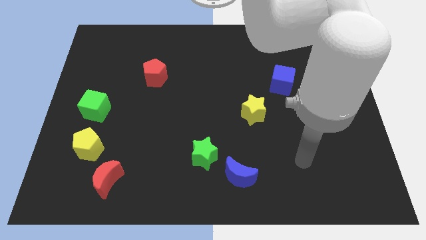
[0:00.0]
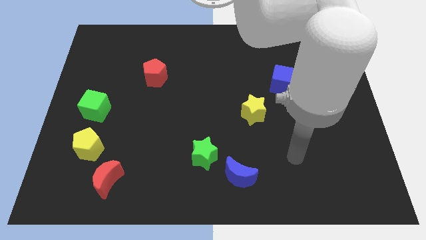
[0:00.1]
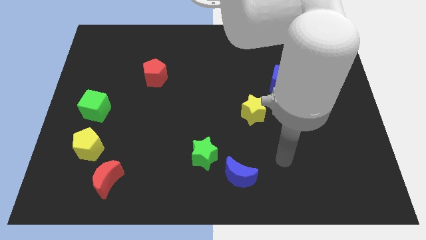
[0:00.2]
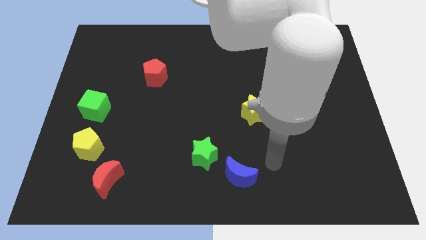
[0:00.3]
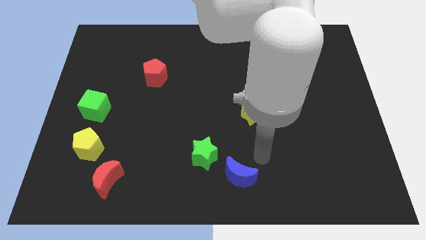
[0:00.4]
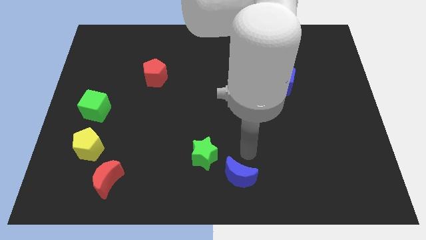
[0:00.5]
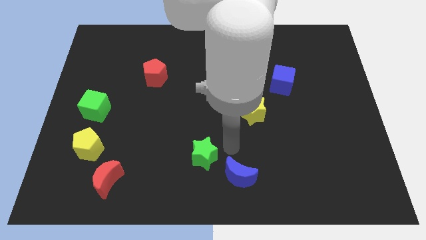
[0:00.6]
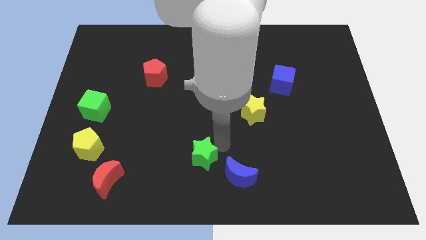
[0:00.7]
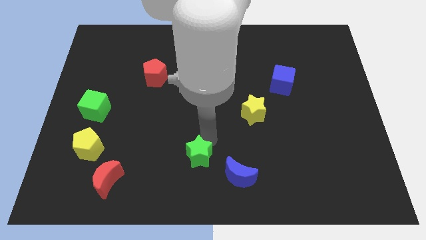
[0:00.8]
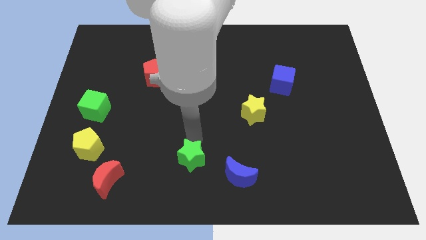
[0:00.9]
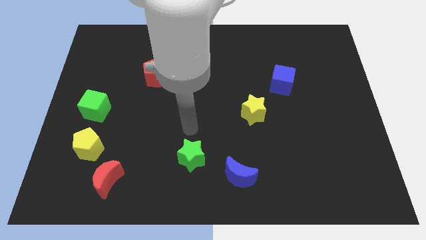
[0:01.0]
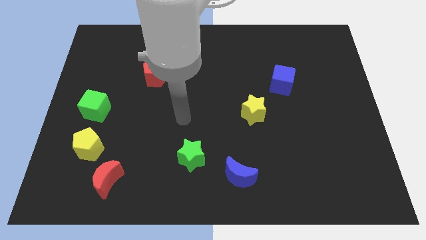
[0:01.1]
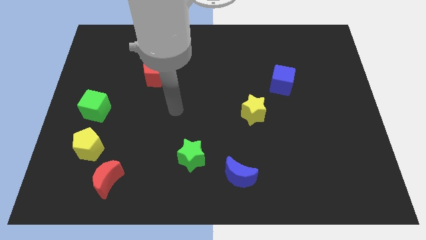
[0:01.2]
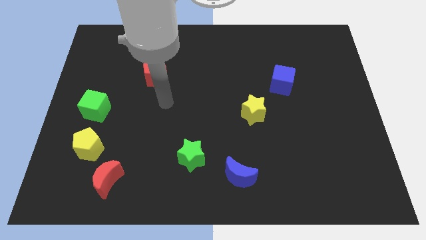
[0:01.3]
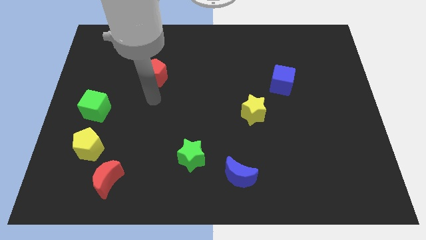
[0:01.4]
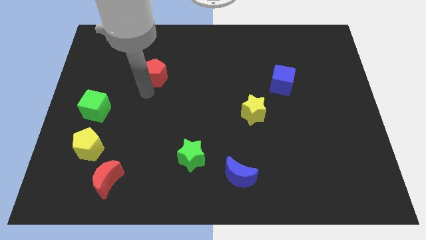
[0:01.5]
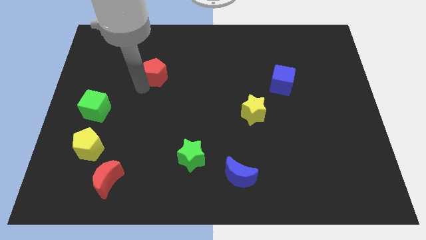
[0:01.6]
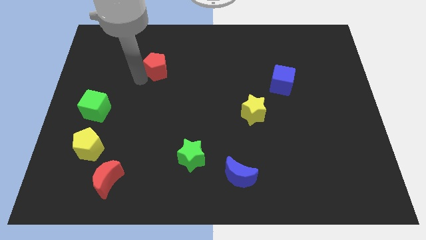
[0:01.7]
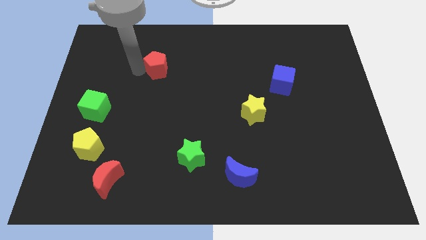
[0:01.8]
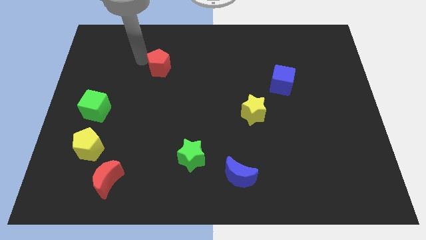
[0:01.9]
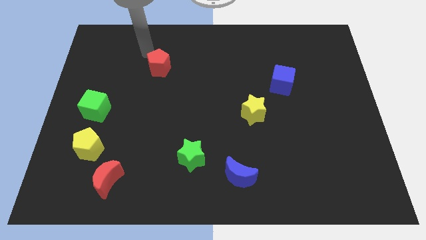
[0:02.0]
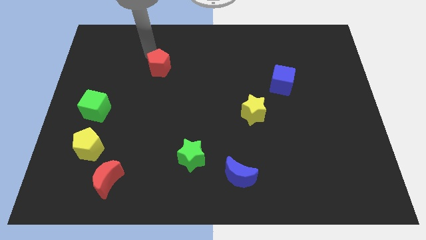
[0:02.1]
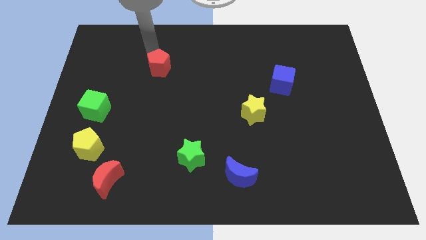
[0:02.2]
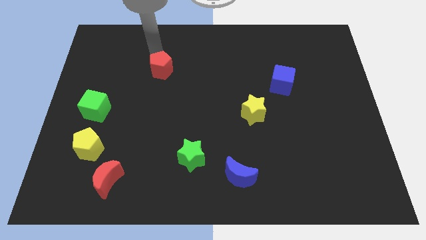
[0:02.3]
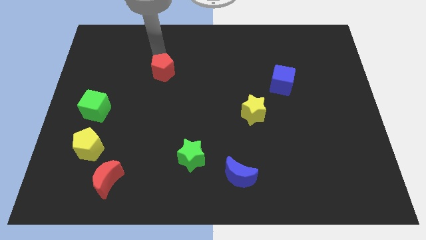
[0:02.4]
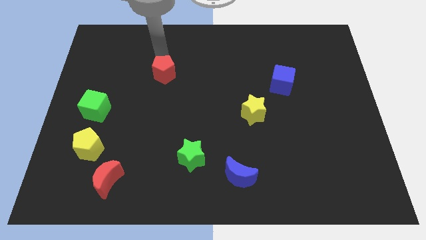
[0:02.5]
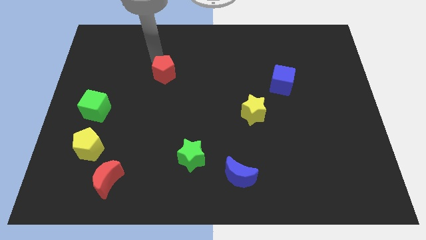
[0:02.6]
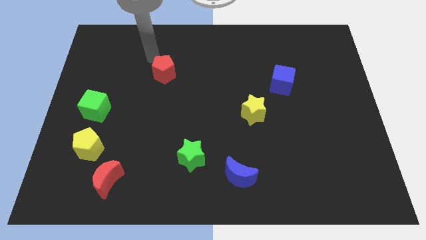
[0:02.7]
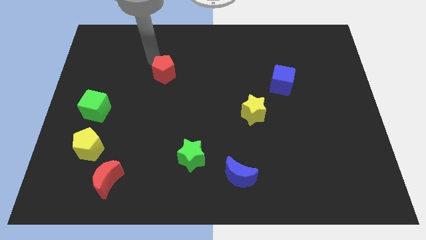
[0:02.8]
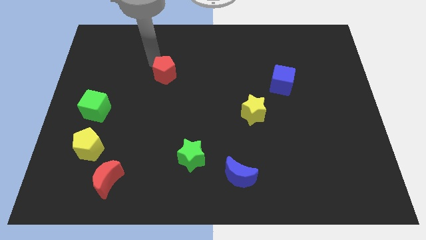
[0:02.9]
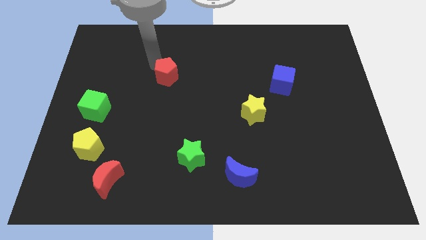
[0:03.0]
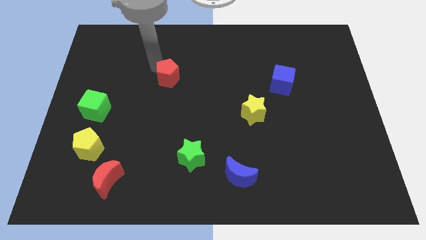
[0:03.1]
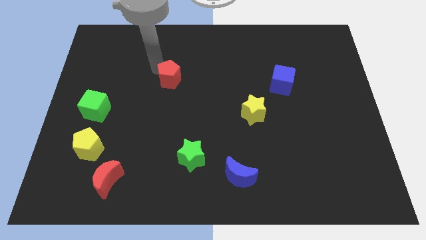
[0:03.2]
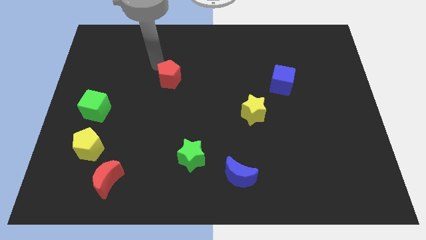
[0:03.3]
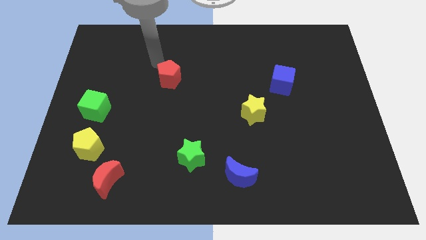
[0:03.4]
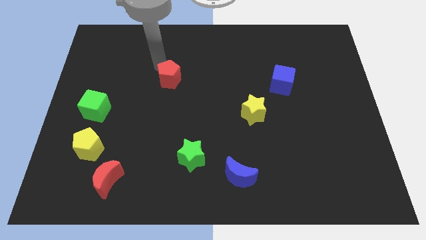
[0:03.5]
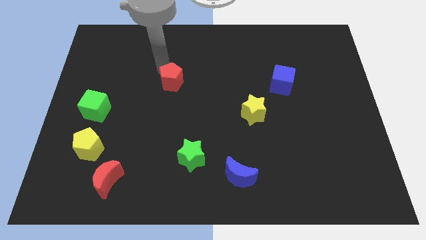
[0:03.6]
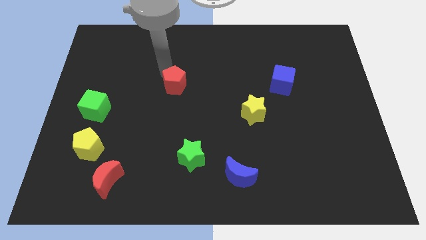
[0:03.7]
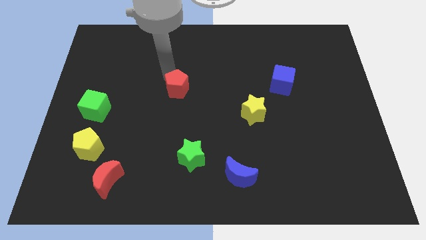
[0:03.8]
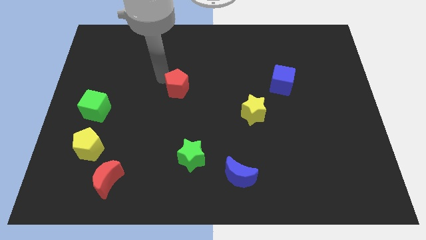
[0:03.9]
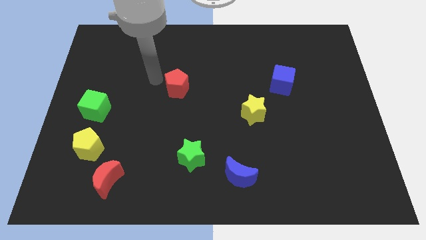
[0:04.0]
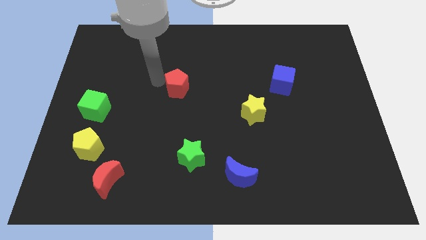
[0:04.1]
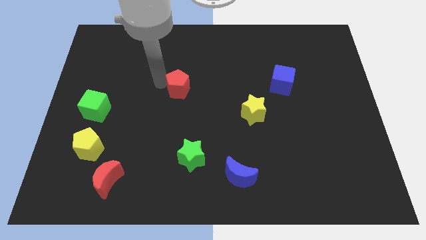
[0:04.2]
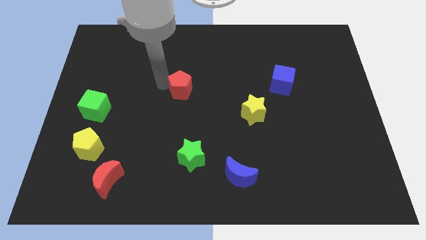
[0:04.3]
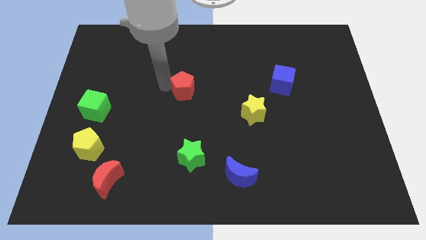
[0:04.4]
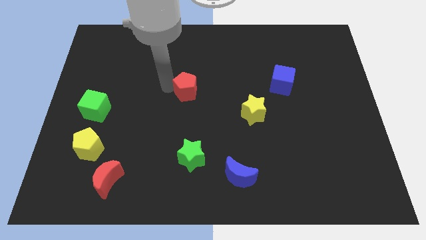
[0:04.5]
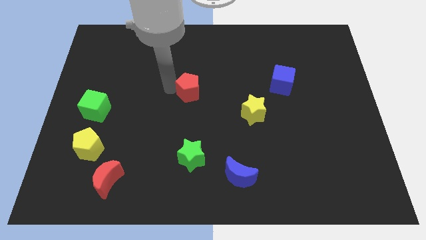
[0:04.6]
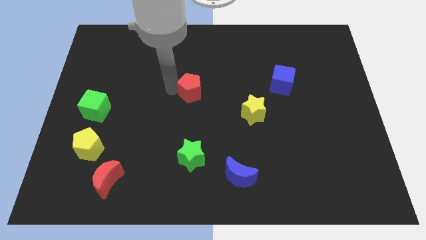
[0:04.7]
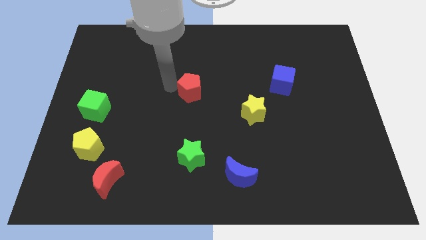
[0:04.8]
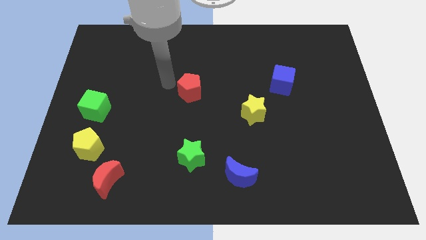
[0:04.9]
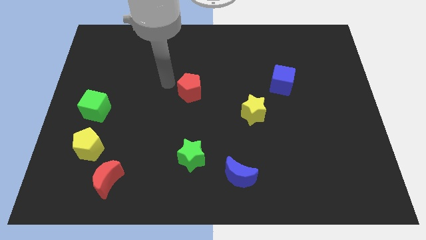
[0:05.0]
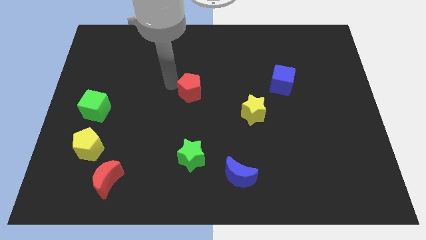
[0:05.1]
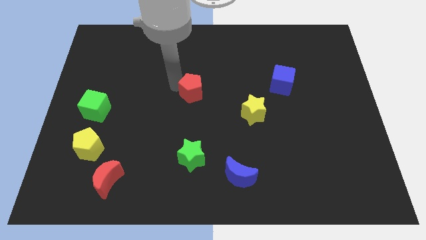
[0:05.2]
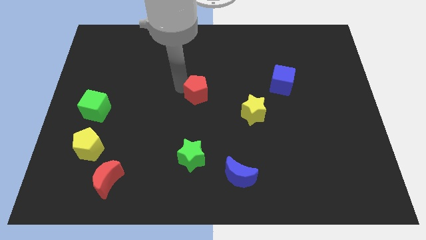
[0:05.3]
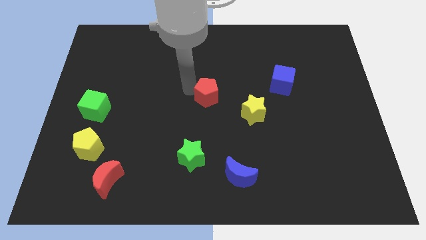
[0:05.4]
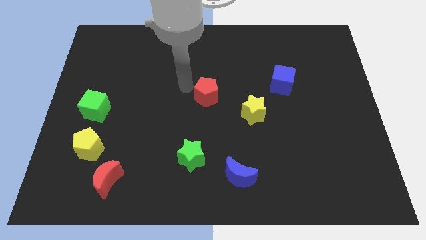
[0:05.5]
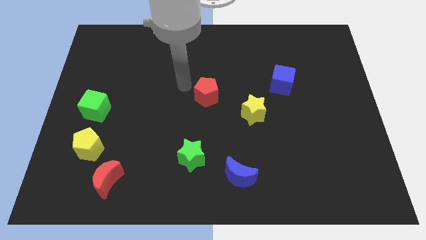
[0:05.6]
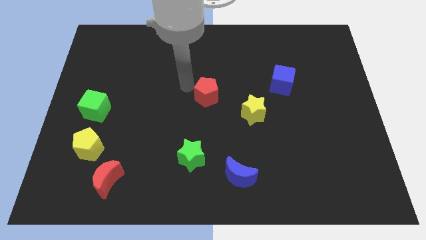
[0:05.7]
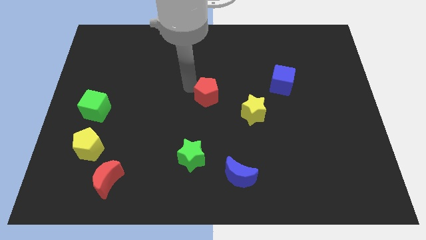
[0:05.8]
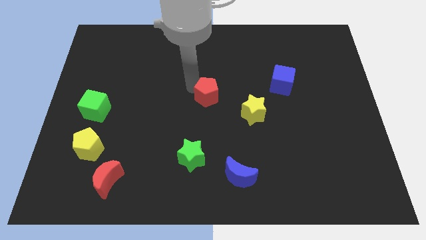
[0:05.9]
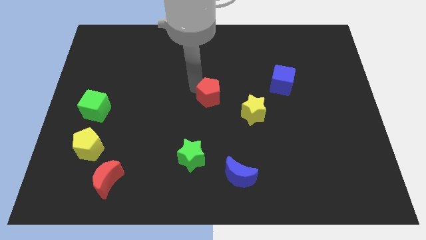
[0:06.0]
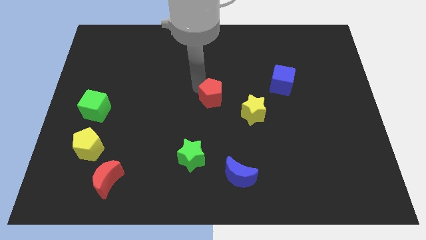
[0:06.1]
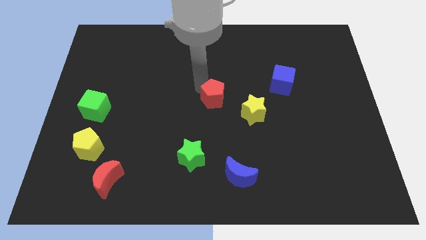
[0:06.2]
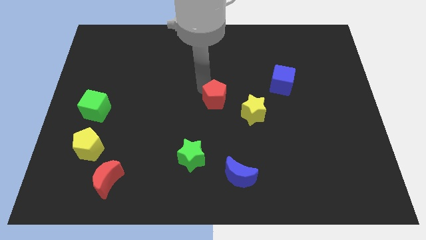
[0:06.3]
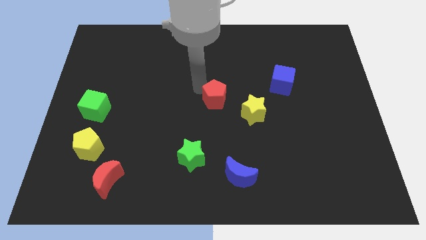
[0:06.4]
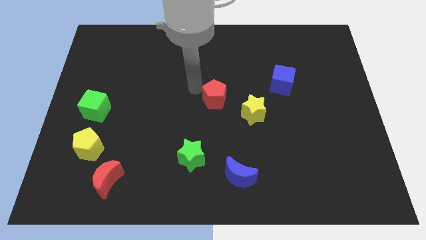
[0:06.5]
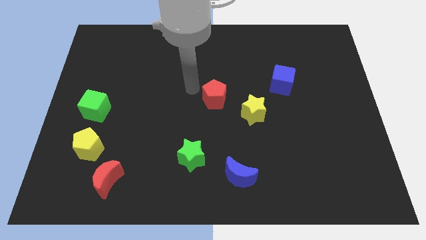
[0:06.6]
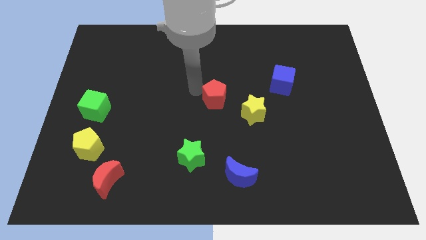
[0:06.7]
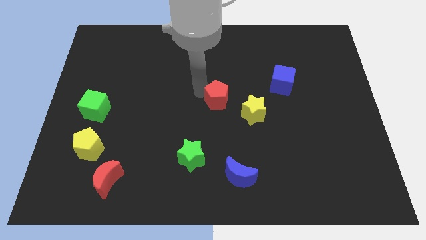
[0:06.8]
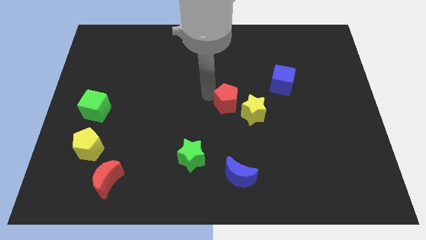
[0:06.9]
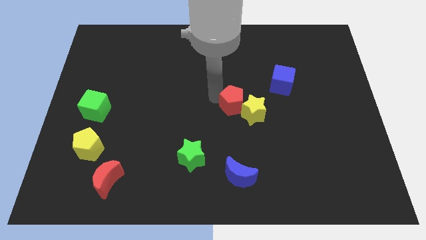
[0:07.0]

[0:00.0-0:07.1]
put the red pentagon towards the yellow star

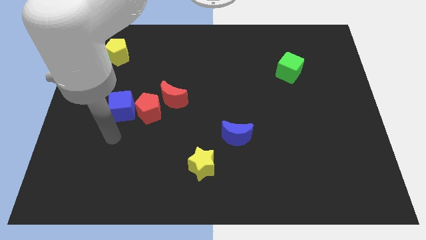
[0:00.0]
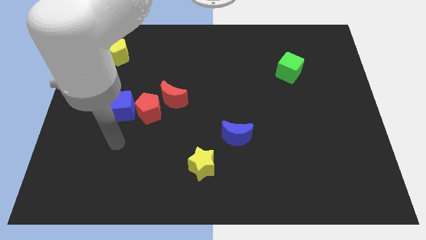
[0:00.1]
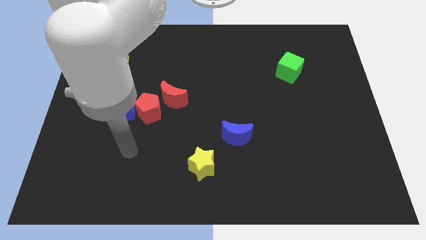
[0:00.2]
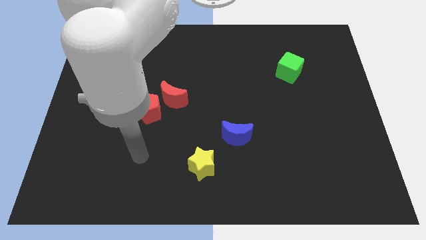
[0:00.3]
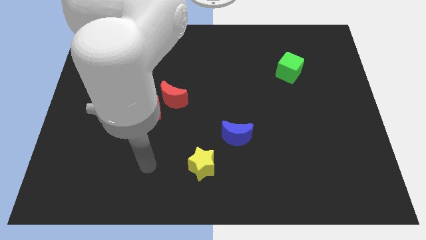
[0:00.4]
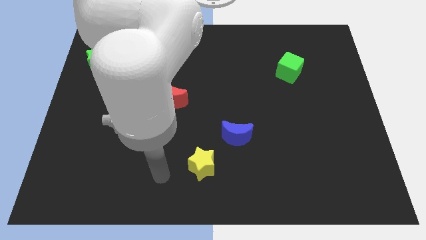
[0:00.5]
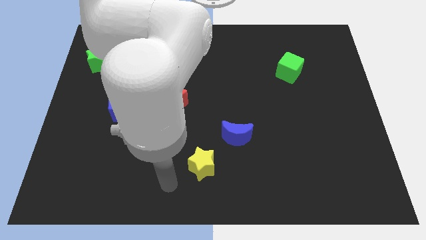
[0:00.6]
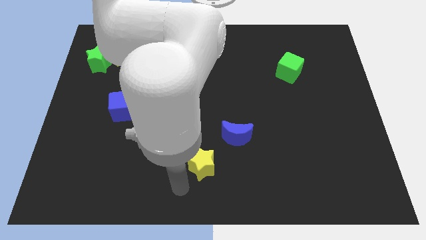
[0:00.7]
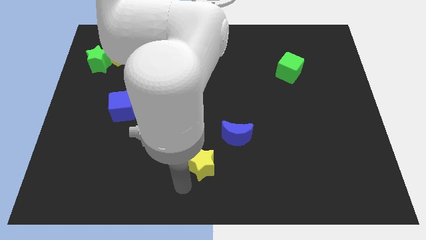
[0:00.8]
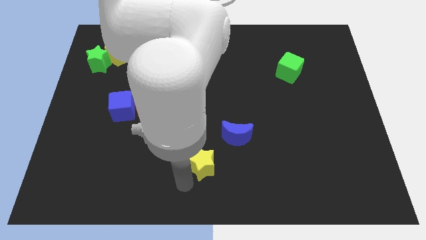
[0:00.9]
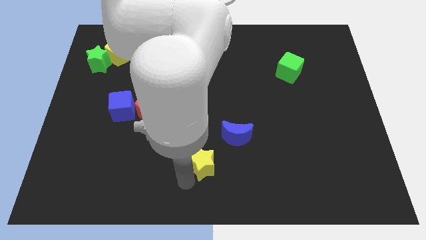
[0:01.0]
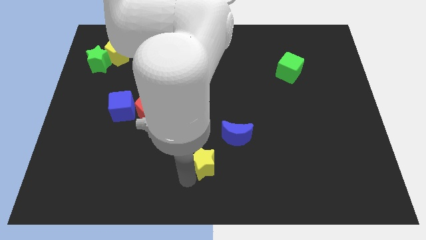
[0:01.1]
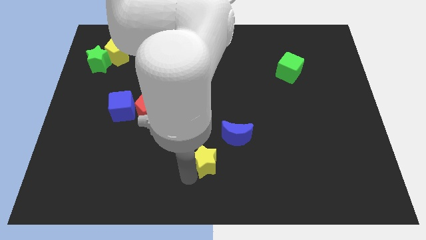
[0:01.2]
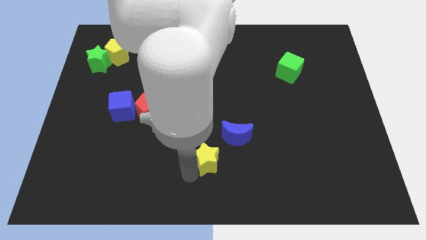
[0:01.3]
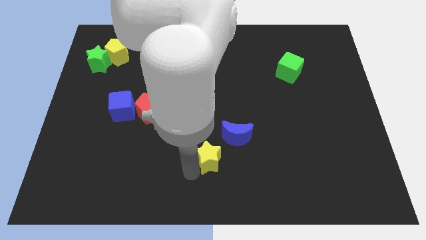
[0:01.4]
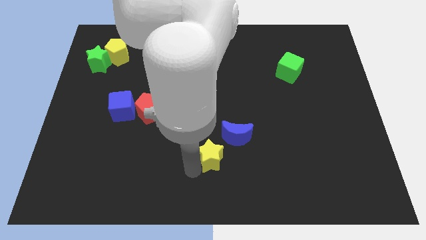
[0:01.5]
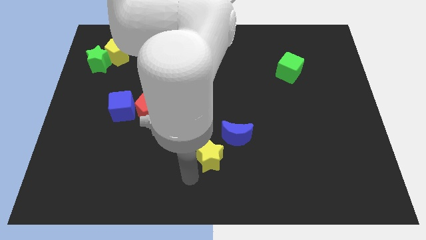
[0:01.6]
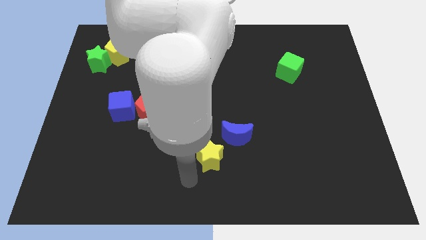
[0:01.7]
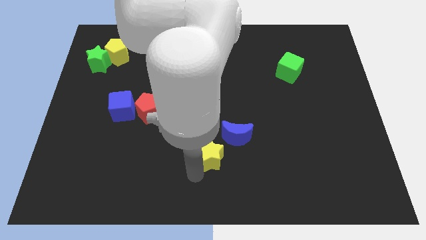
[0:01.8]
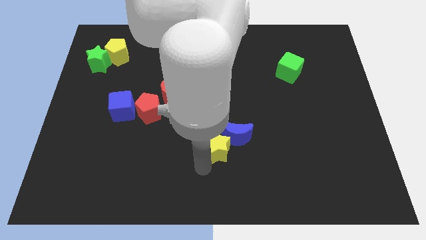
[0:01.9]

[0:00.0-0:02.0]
slide the yellow star to the blue moon
